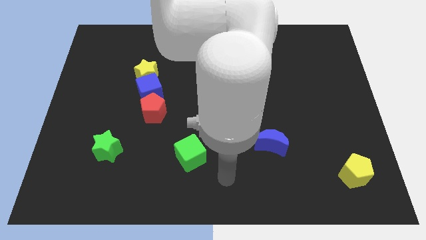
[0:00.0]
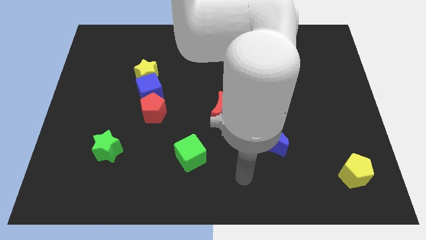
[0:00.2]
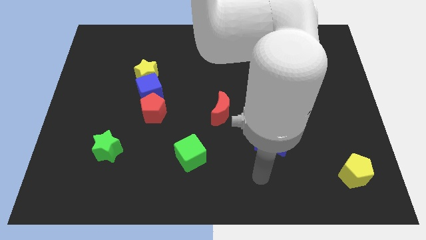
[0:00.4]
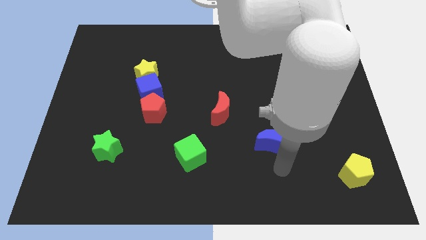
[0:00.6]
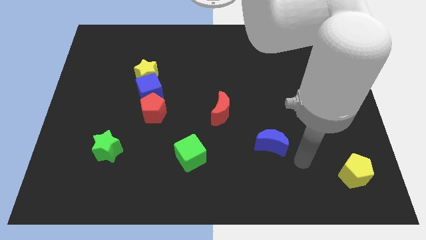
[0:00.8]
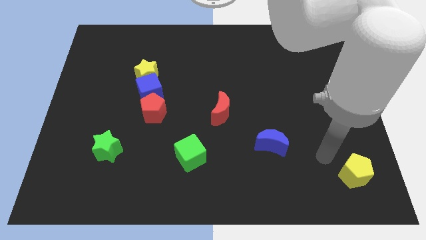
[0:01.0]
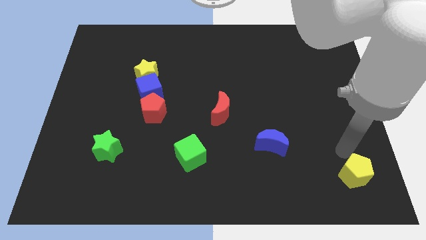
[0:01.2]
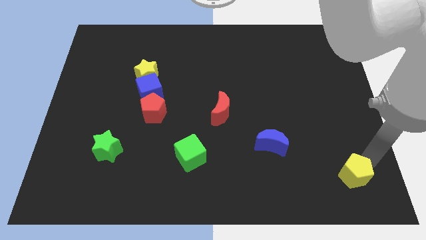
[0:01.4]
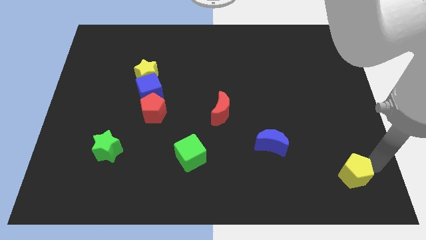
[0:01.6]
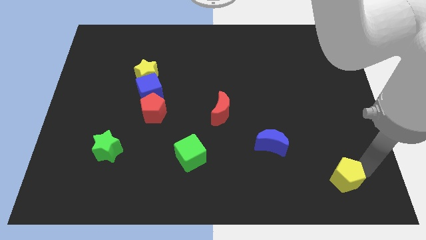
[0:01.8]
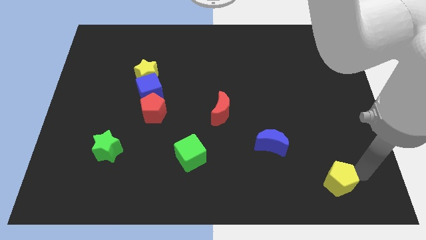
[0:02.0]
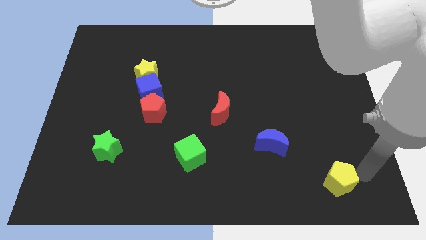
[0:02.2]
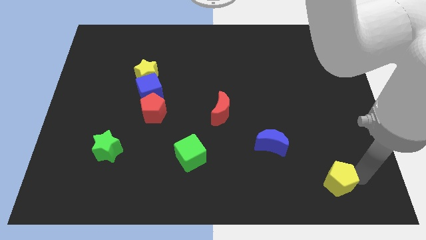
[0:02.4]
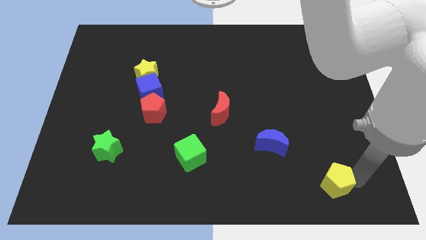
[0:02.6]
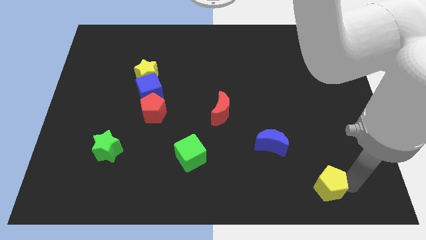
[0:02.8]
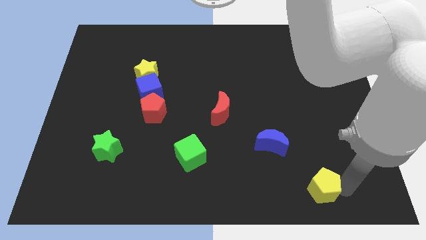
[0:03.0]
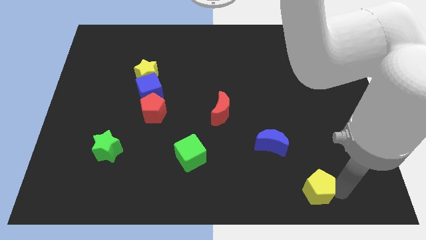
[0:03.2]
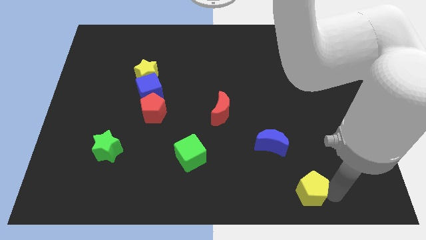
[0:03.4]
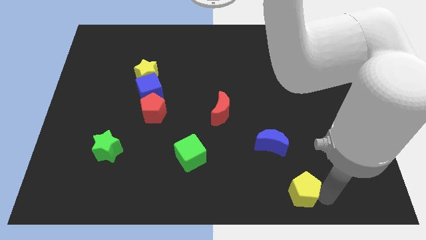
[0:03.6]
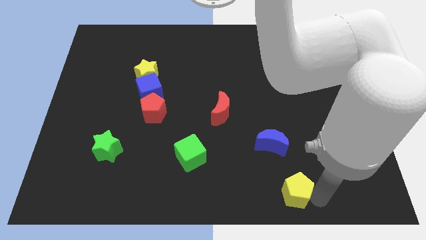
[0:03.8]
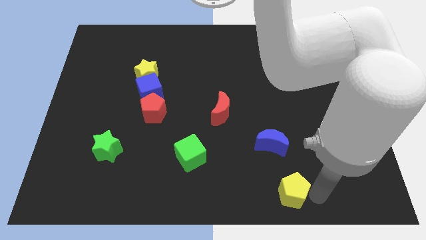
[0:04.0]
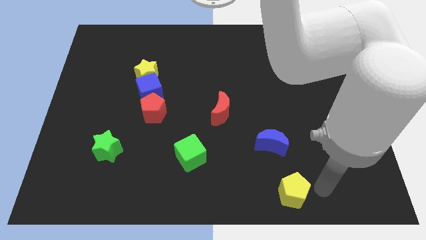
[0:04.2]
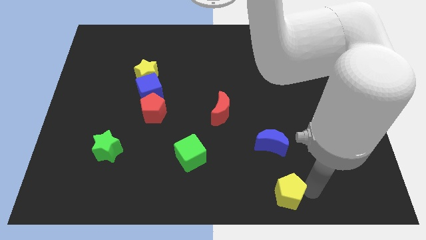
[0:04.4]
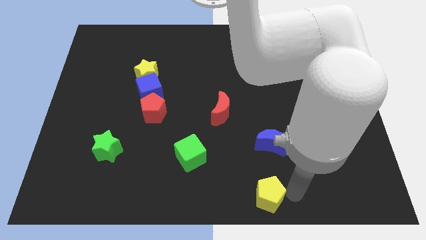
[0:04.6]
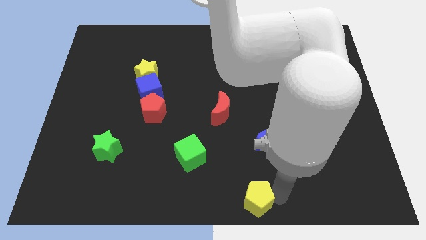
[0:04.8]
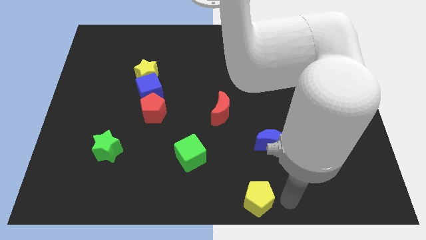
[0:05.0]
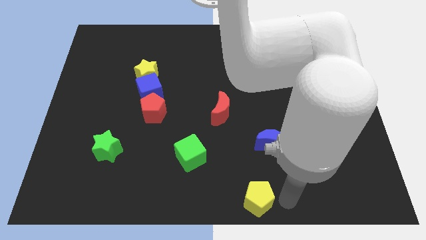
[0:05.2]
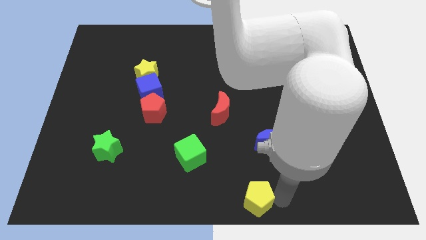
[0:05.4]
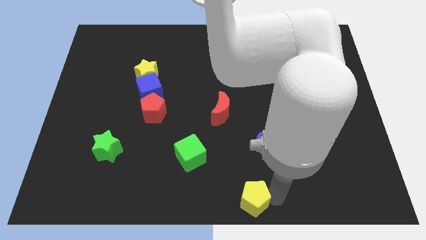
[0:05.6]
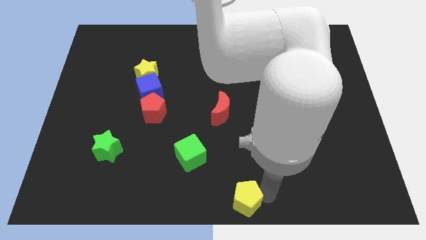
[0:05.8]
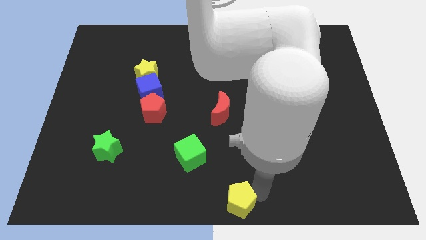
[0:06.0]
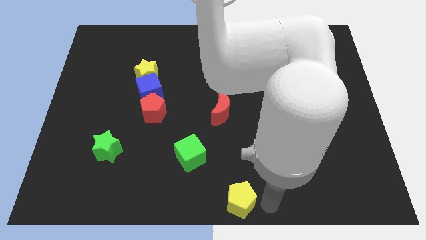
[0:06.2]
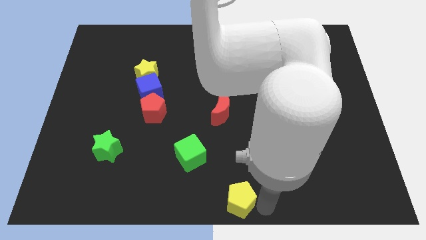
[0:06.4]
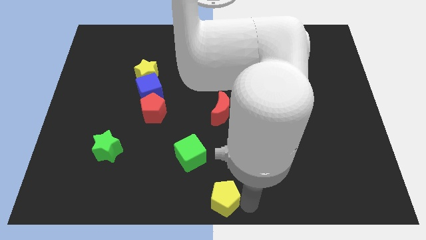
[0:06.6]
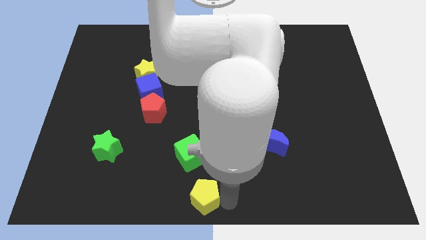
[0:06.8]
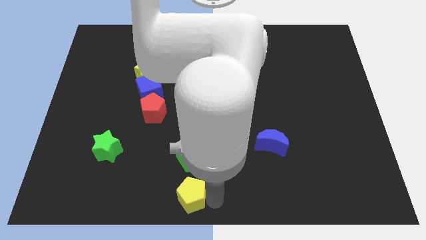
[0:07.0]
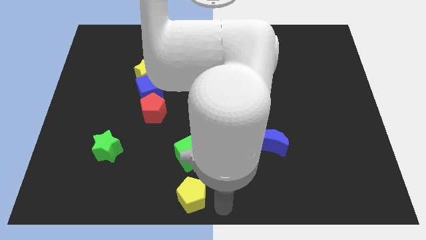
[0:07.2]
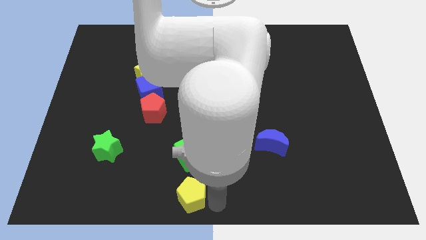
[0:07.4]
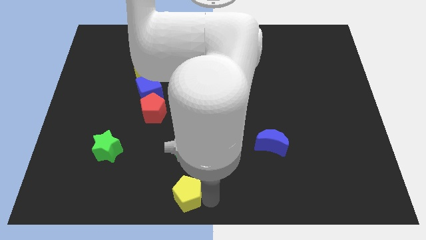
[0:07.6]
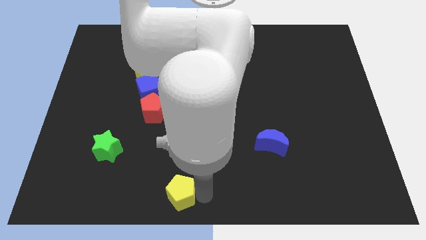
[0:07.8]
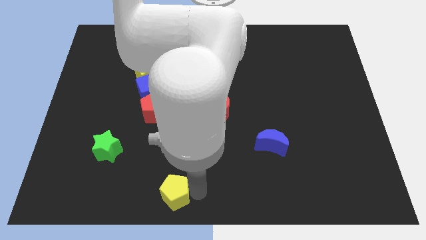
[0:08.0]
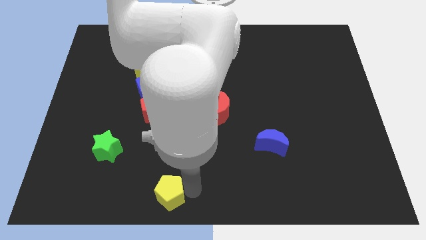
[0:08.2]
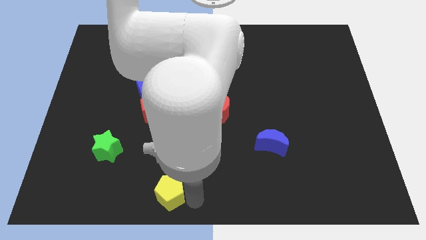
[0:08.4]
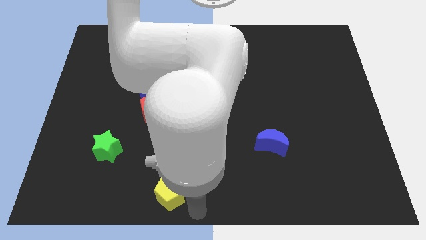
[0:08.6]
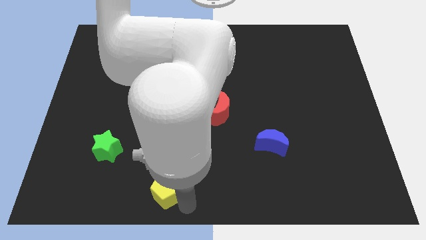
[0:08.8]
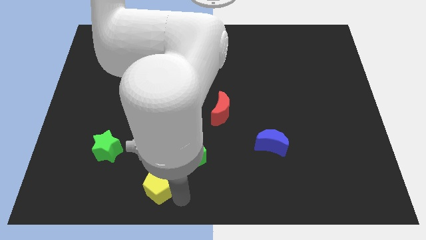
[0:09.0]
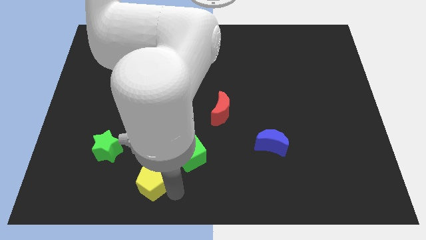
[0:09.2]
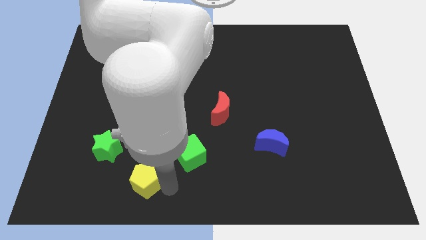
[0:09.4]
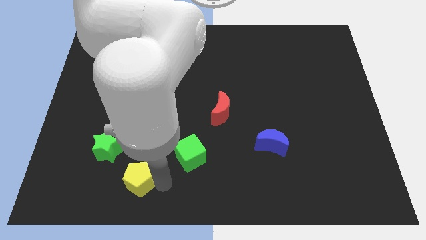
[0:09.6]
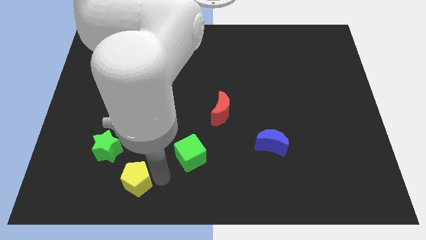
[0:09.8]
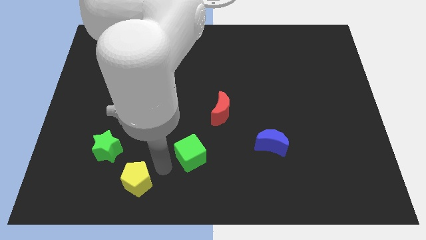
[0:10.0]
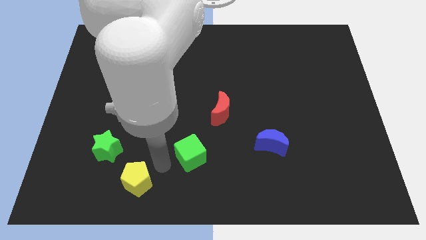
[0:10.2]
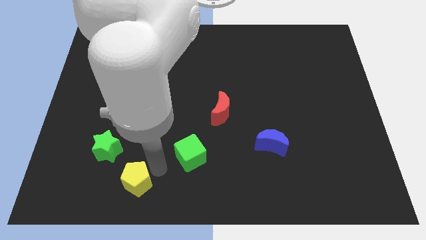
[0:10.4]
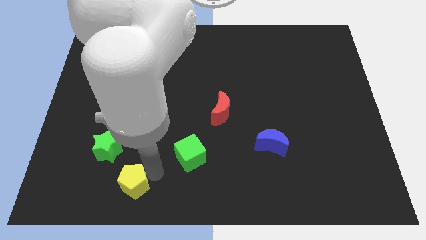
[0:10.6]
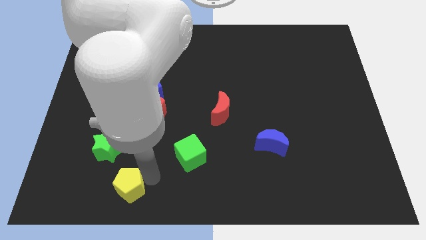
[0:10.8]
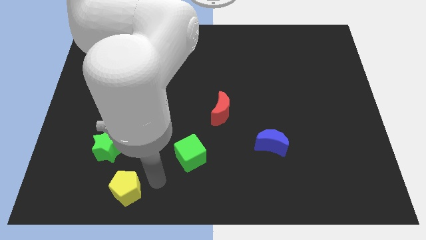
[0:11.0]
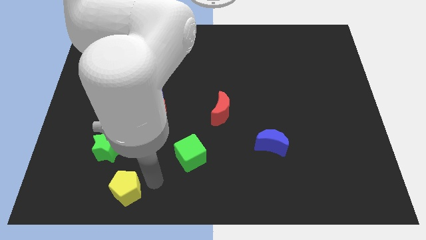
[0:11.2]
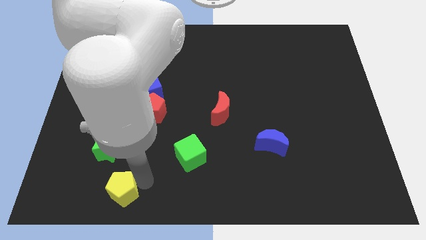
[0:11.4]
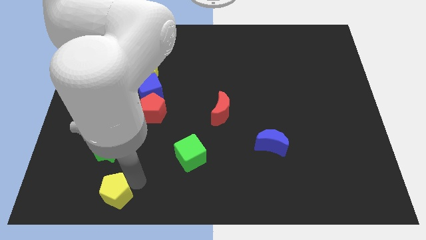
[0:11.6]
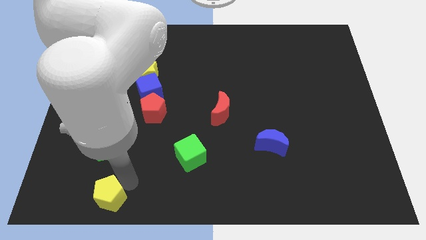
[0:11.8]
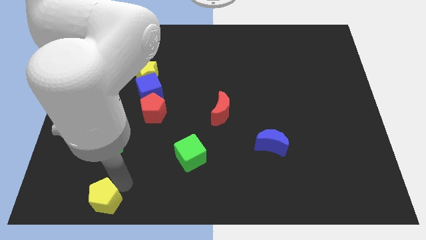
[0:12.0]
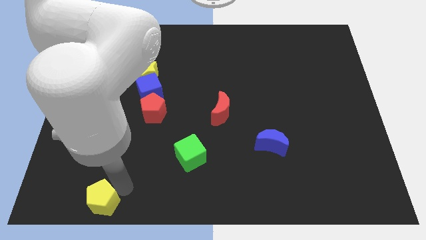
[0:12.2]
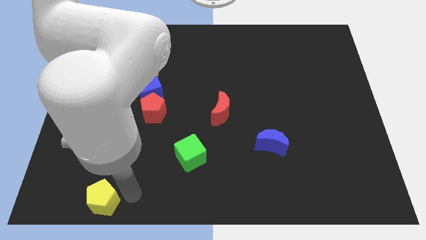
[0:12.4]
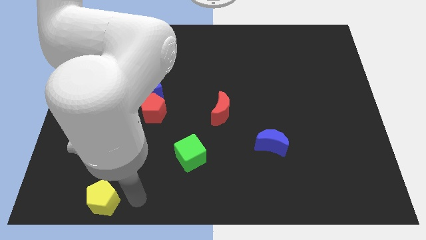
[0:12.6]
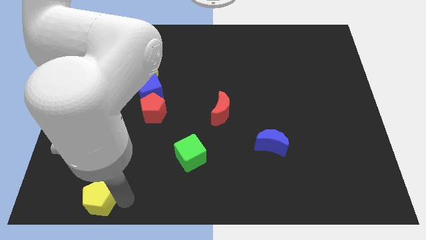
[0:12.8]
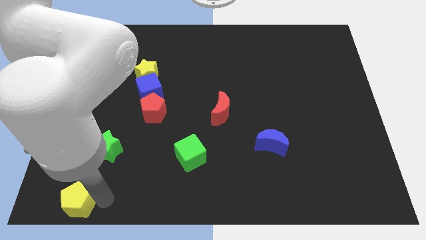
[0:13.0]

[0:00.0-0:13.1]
push the yellow pentagon to the bottom left corner

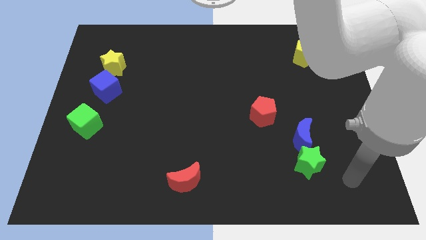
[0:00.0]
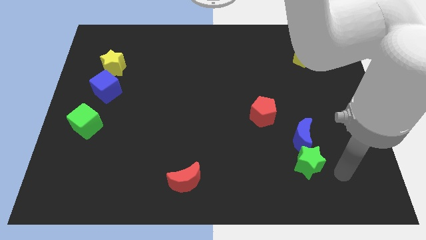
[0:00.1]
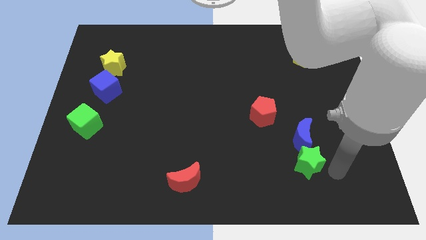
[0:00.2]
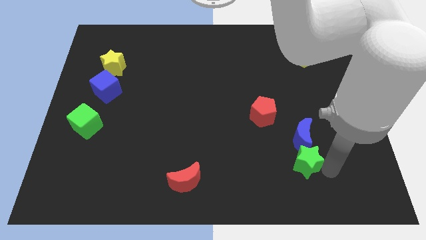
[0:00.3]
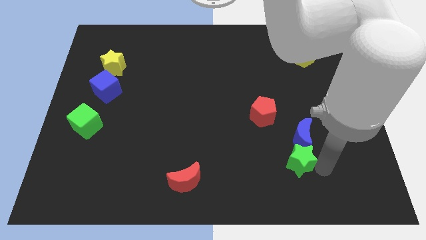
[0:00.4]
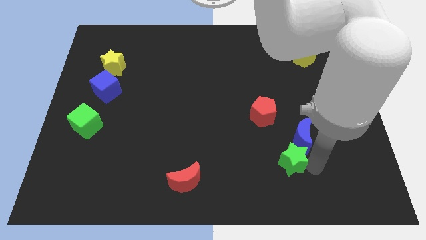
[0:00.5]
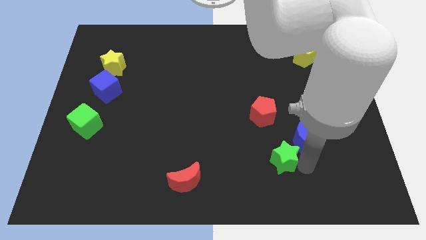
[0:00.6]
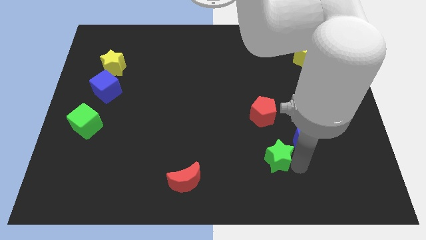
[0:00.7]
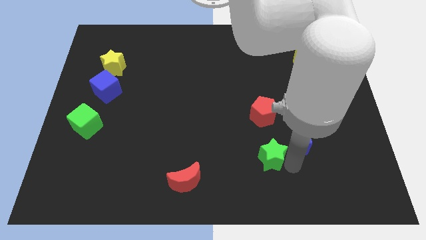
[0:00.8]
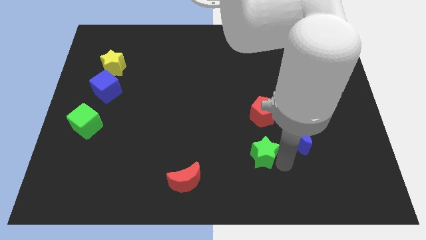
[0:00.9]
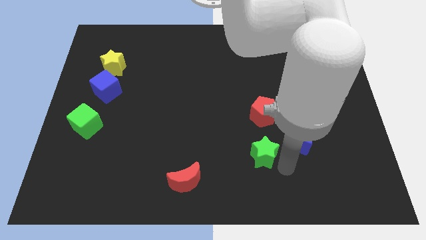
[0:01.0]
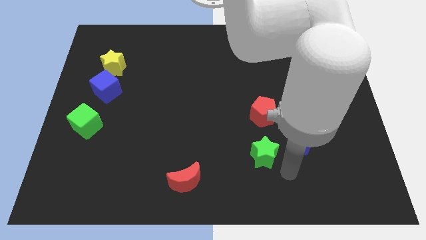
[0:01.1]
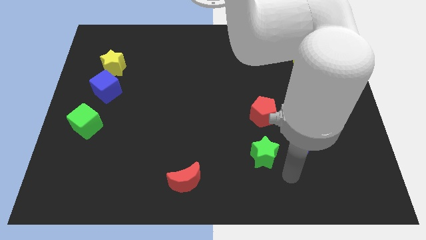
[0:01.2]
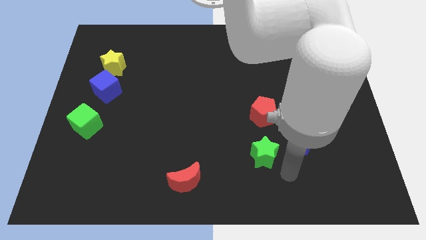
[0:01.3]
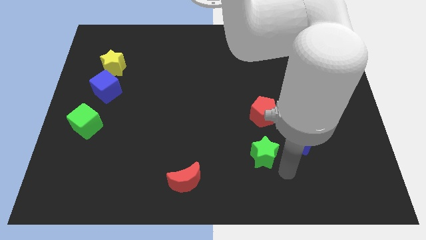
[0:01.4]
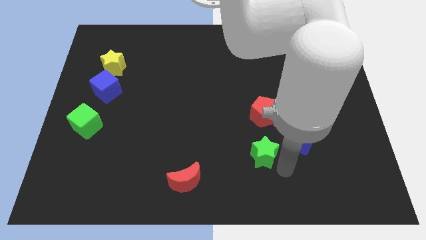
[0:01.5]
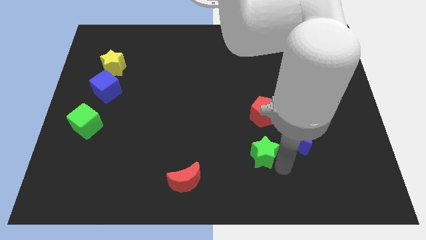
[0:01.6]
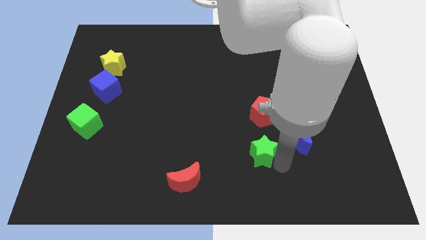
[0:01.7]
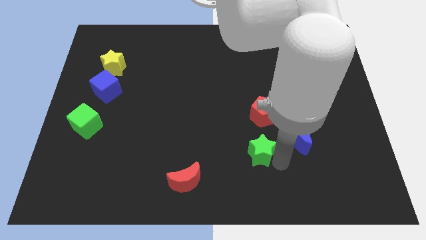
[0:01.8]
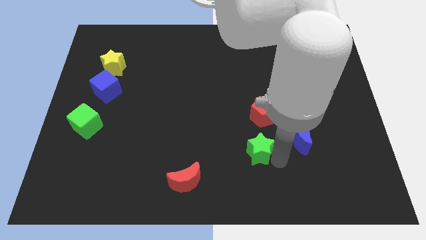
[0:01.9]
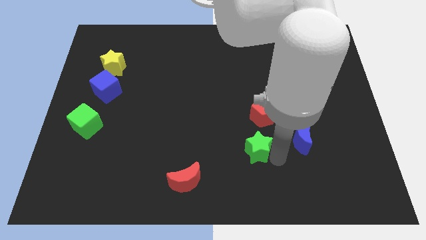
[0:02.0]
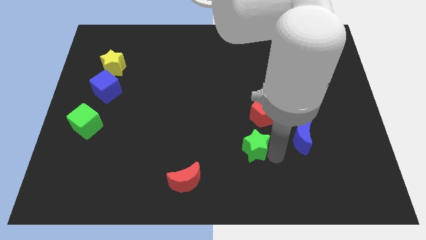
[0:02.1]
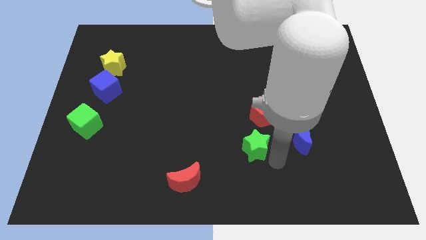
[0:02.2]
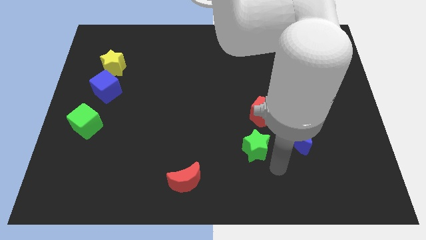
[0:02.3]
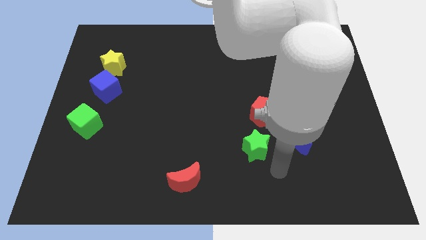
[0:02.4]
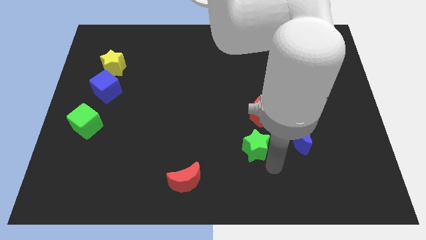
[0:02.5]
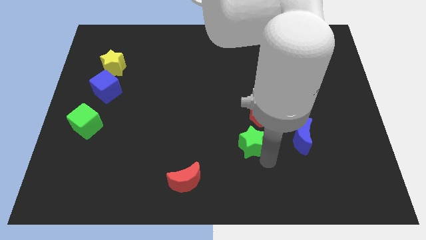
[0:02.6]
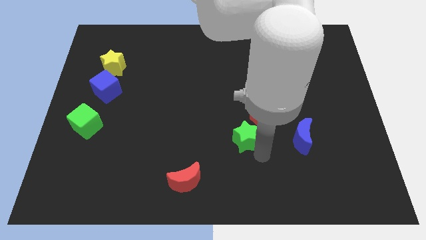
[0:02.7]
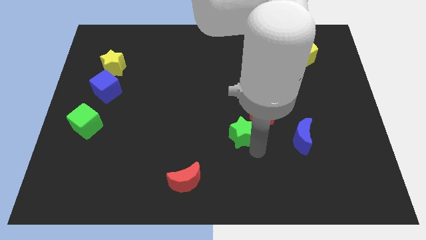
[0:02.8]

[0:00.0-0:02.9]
slide the green star to the center of the board
